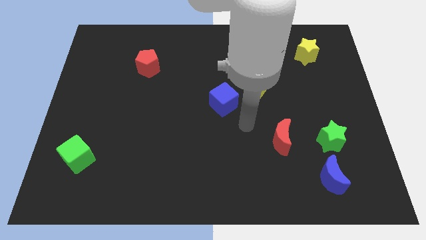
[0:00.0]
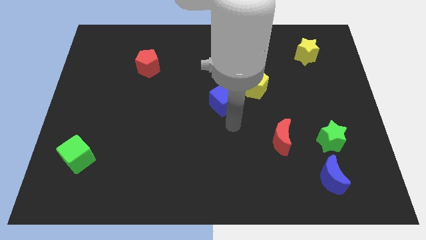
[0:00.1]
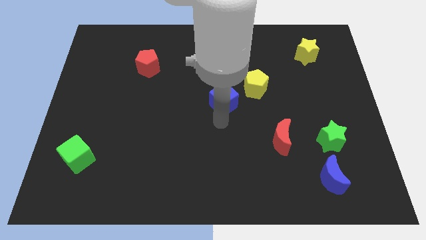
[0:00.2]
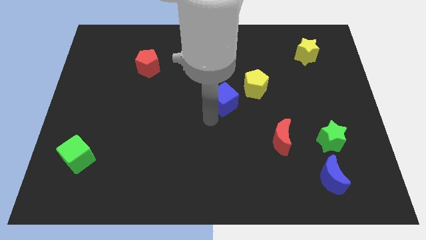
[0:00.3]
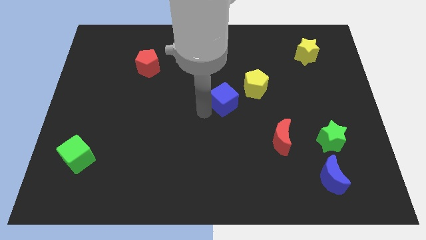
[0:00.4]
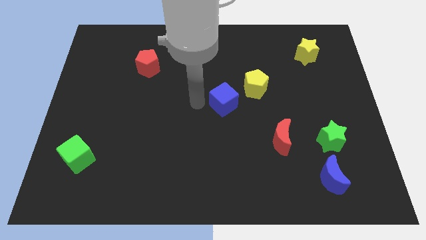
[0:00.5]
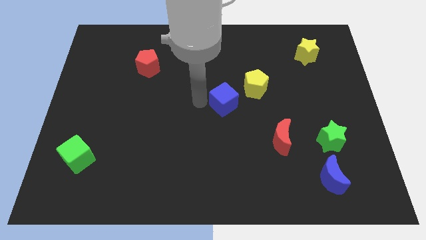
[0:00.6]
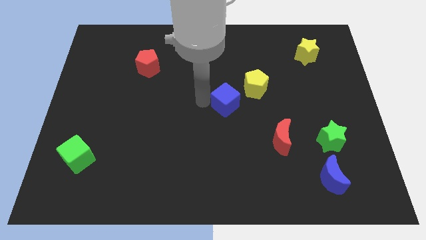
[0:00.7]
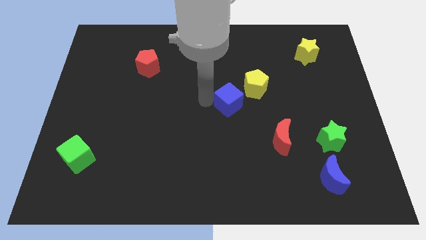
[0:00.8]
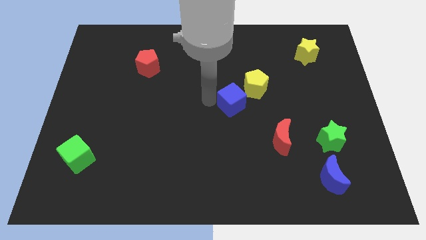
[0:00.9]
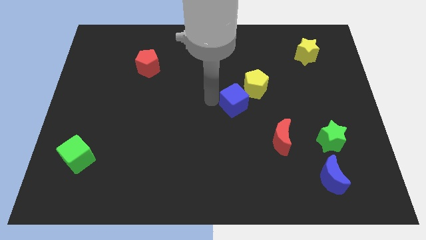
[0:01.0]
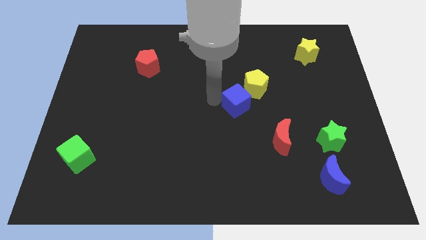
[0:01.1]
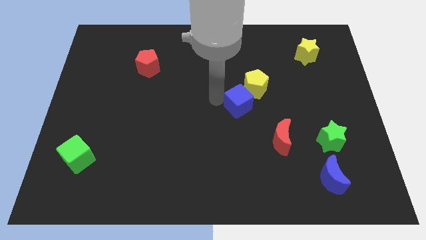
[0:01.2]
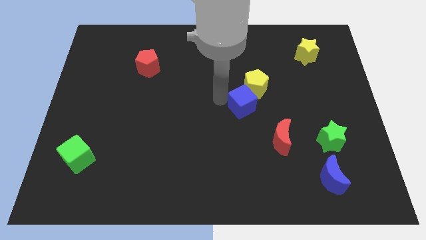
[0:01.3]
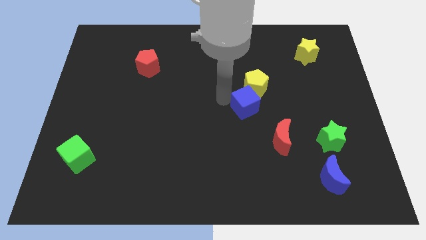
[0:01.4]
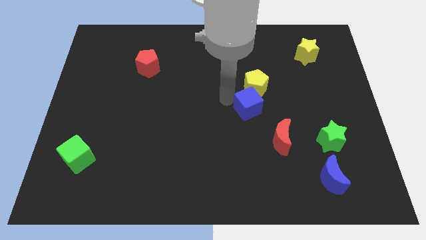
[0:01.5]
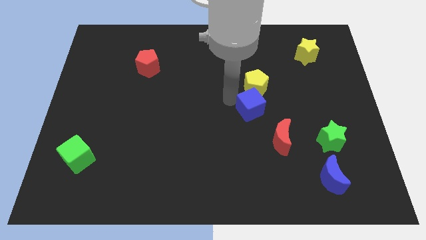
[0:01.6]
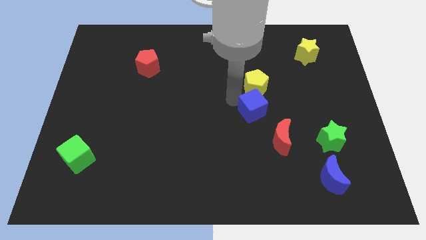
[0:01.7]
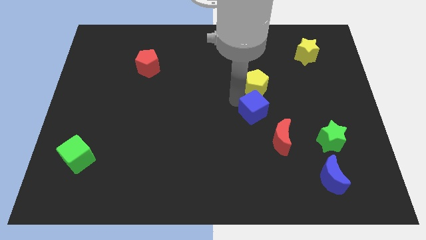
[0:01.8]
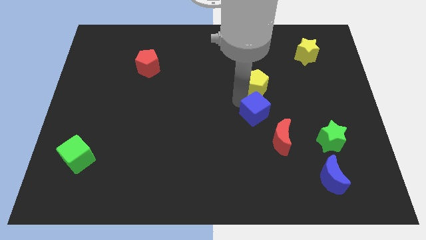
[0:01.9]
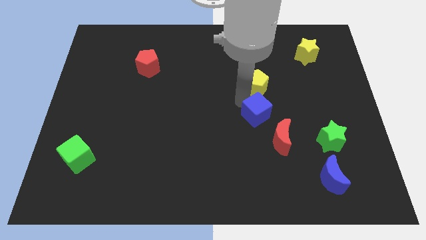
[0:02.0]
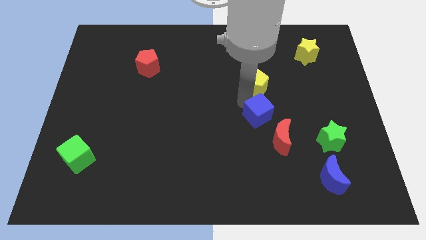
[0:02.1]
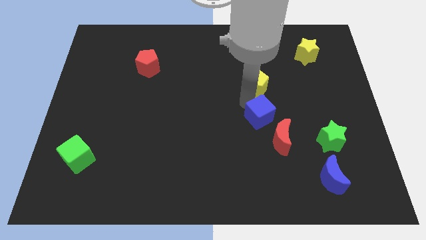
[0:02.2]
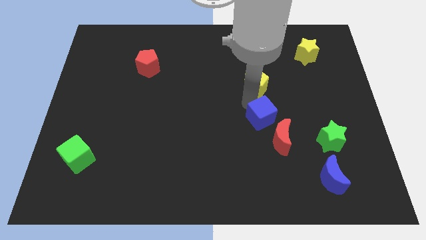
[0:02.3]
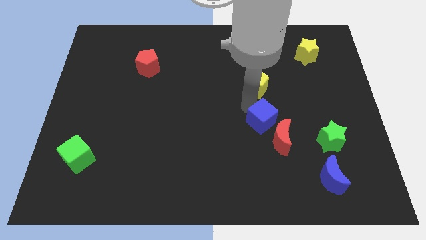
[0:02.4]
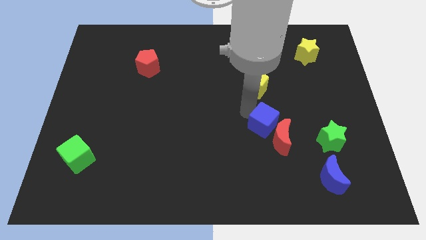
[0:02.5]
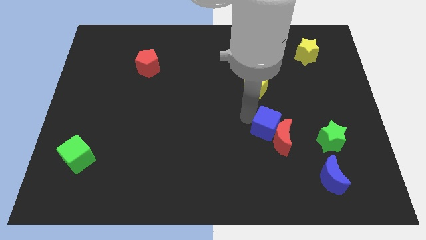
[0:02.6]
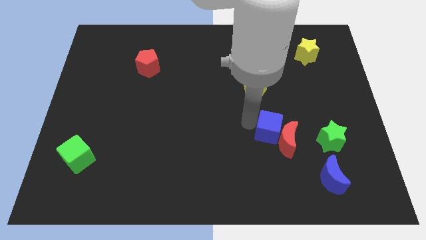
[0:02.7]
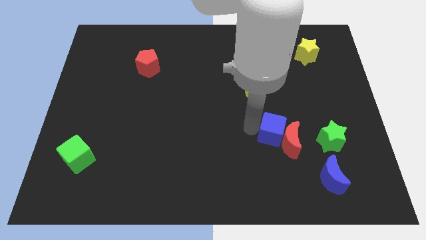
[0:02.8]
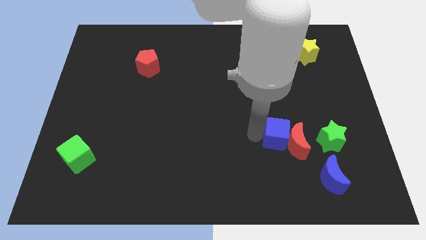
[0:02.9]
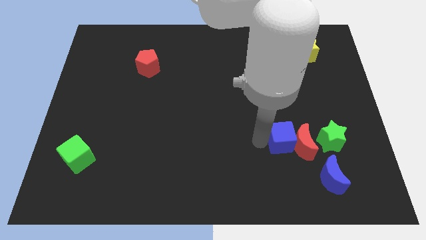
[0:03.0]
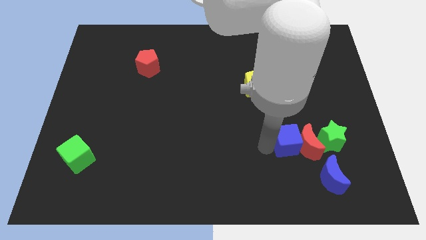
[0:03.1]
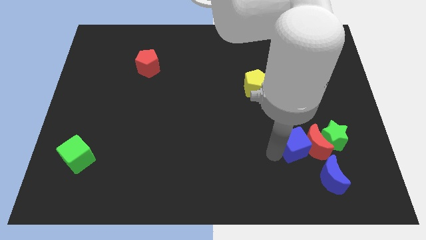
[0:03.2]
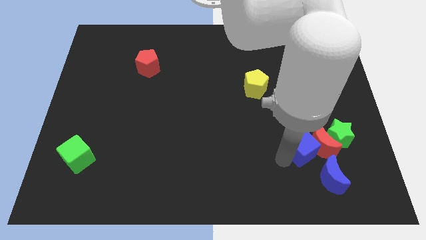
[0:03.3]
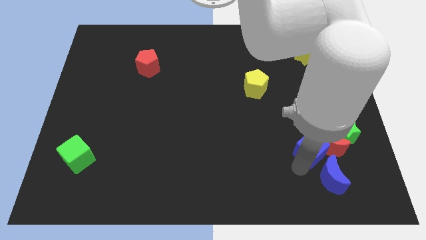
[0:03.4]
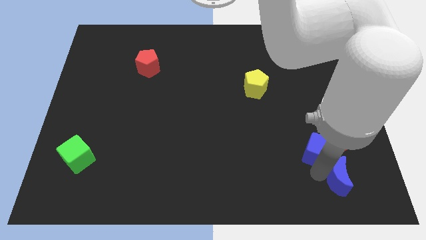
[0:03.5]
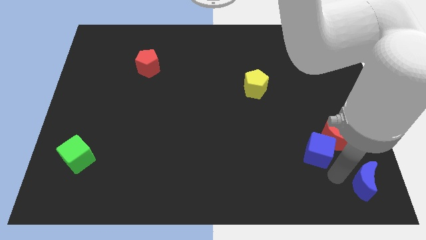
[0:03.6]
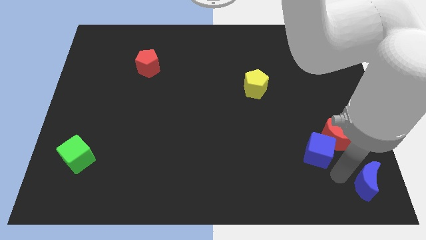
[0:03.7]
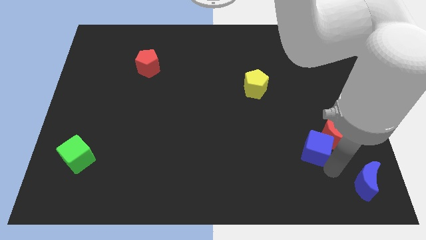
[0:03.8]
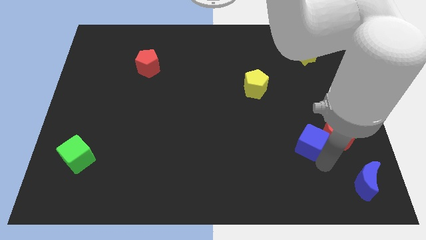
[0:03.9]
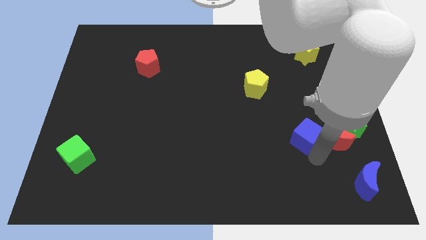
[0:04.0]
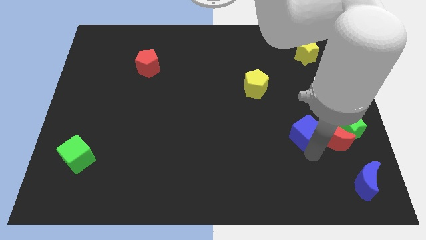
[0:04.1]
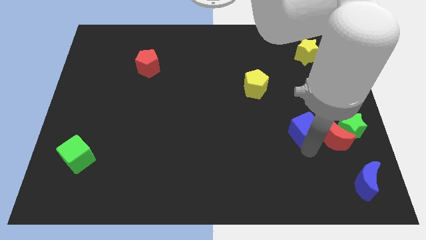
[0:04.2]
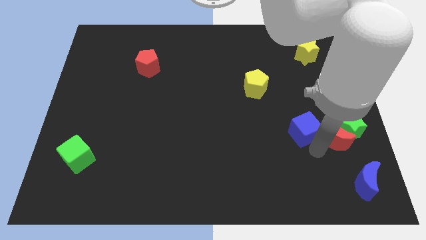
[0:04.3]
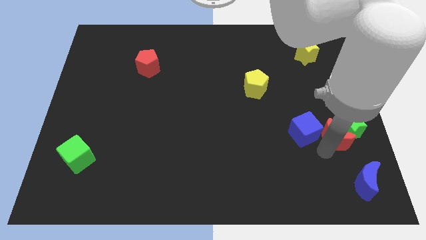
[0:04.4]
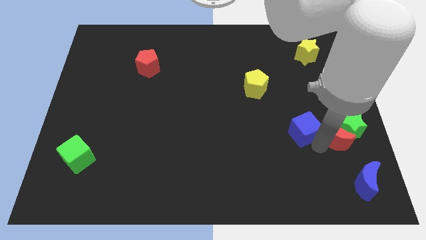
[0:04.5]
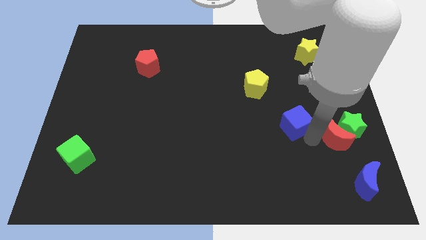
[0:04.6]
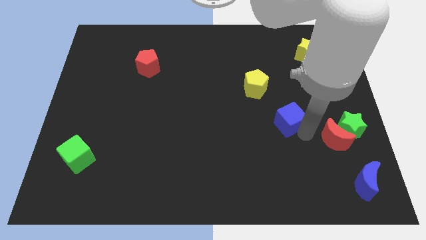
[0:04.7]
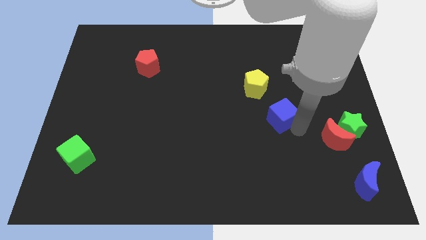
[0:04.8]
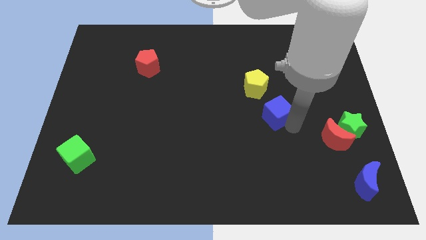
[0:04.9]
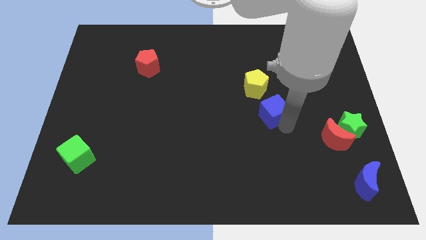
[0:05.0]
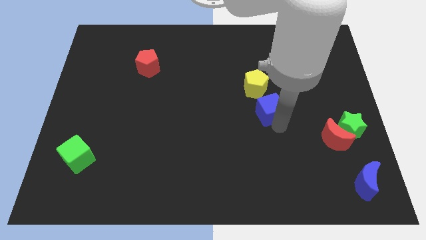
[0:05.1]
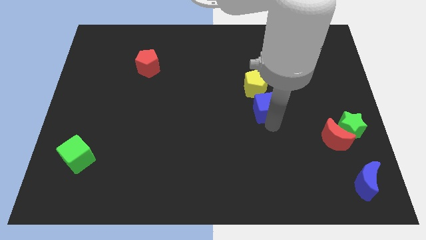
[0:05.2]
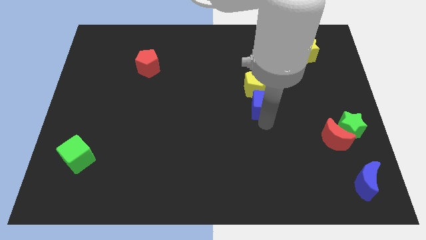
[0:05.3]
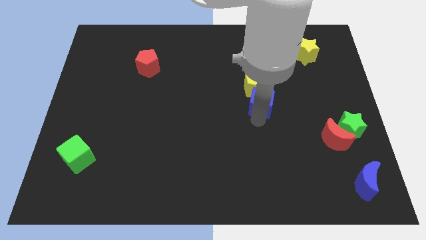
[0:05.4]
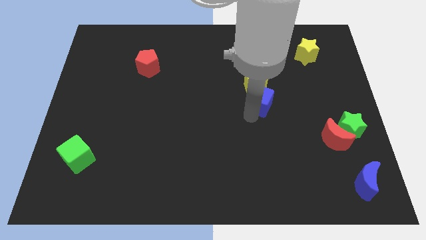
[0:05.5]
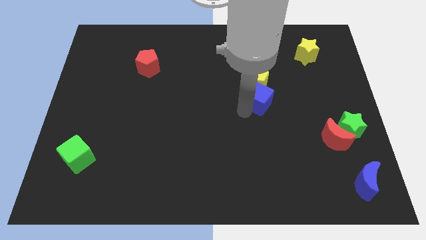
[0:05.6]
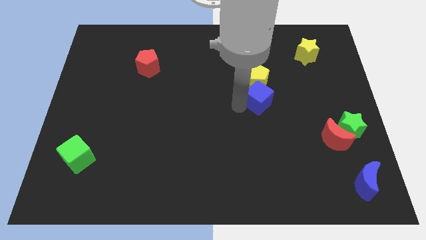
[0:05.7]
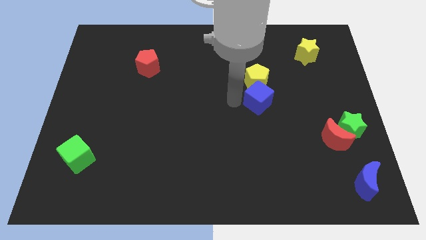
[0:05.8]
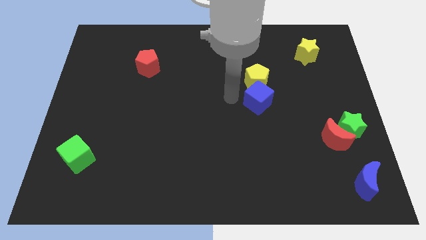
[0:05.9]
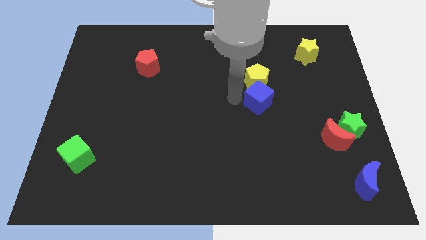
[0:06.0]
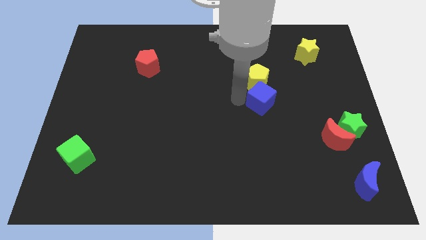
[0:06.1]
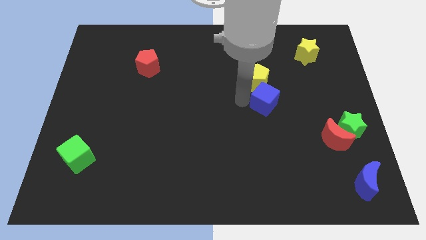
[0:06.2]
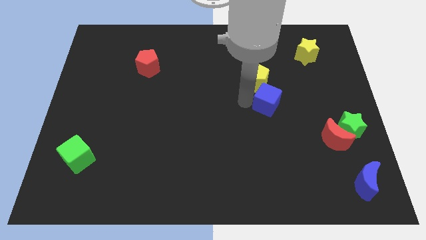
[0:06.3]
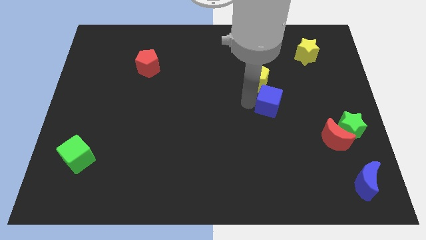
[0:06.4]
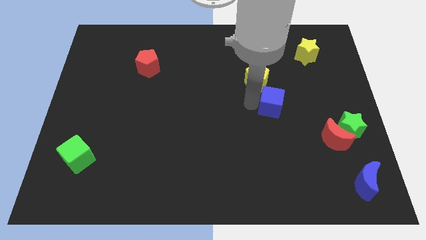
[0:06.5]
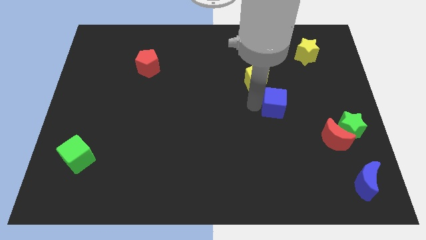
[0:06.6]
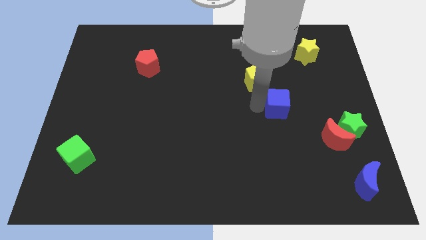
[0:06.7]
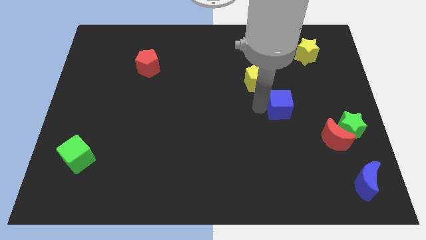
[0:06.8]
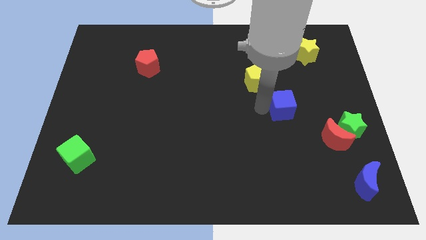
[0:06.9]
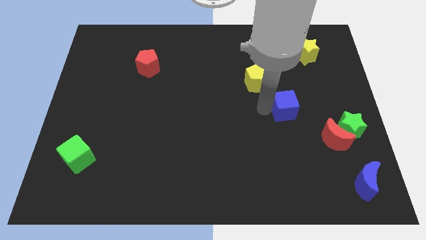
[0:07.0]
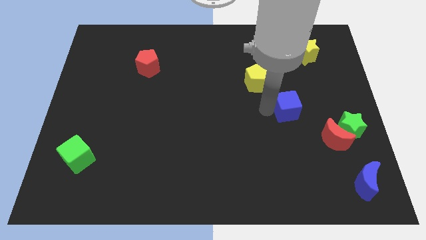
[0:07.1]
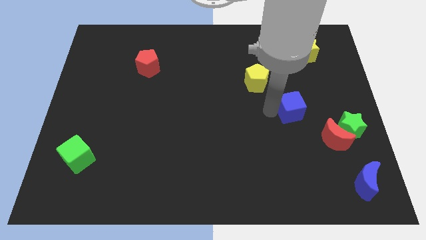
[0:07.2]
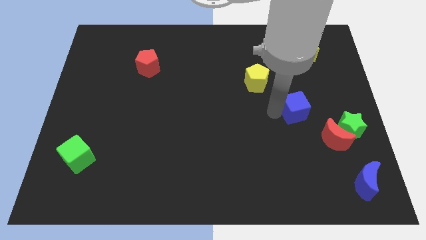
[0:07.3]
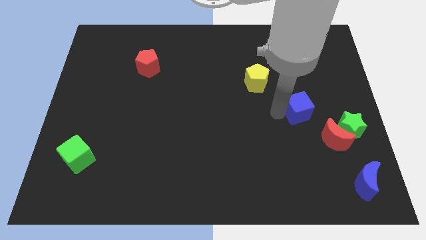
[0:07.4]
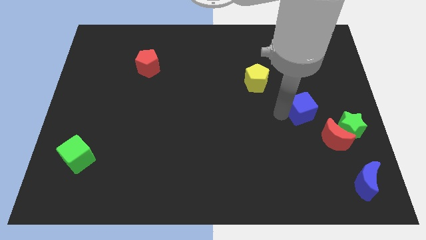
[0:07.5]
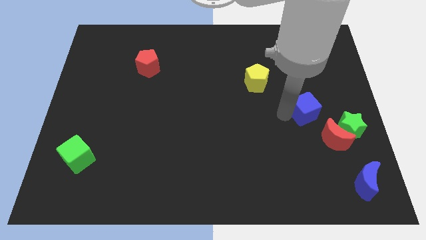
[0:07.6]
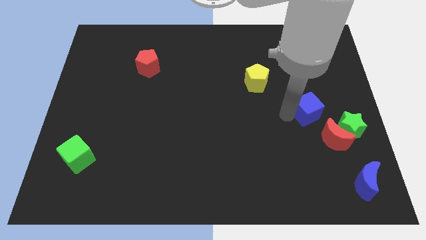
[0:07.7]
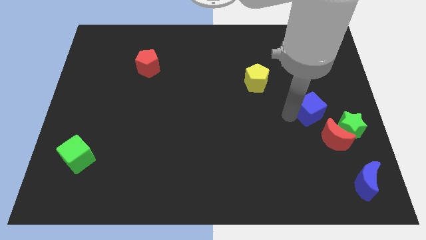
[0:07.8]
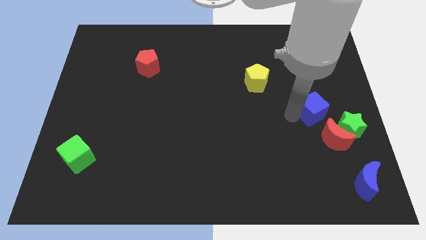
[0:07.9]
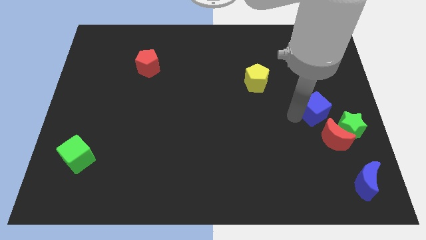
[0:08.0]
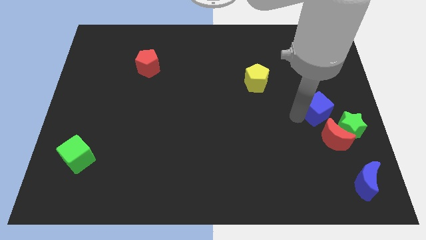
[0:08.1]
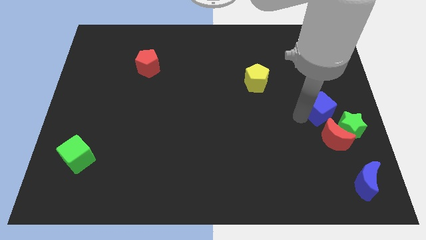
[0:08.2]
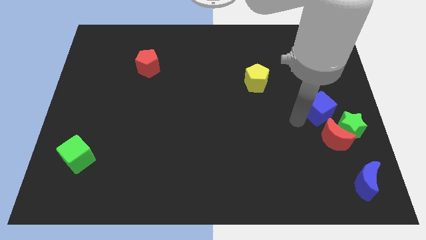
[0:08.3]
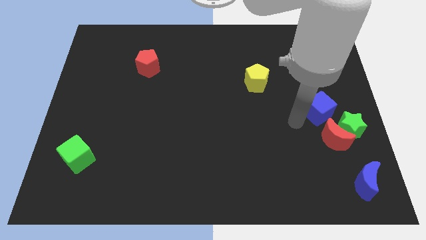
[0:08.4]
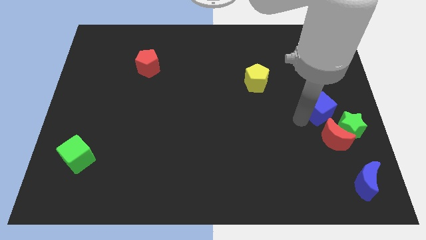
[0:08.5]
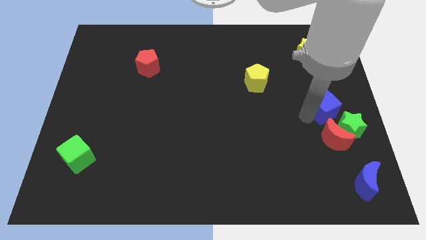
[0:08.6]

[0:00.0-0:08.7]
move the blue cube to the right side
